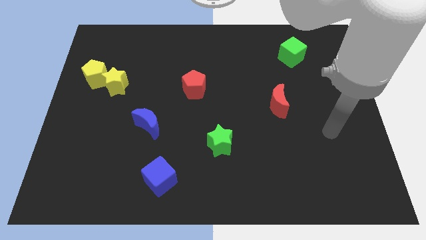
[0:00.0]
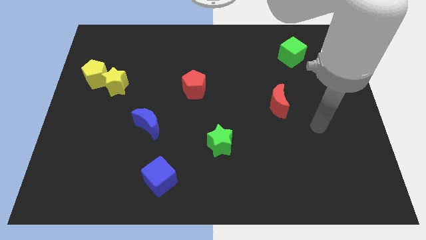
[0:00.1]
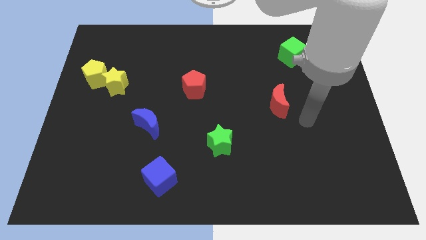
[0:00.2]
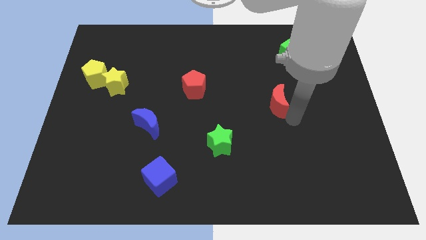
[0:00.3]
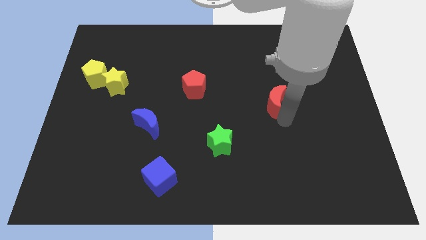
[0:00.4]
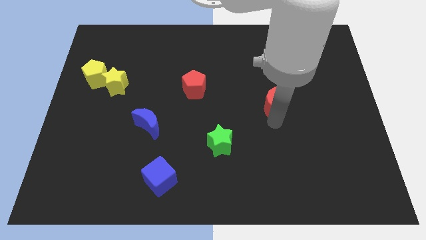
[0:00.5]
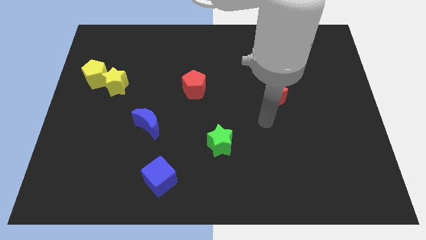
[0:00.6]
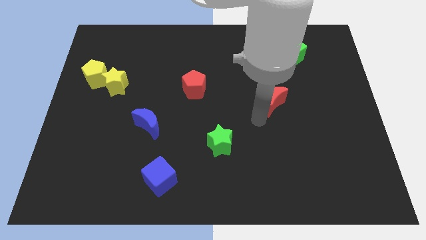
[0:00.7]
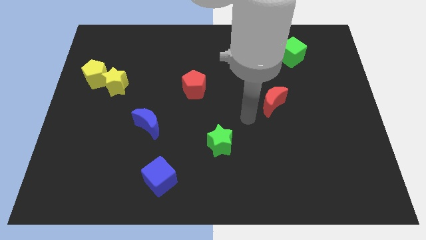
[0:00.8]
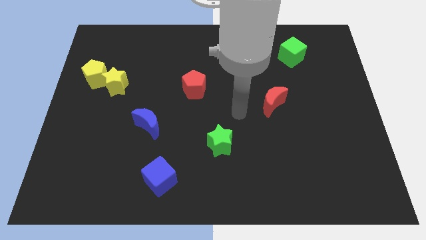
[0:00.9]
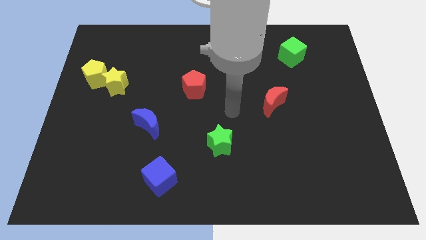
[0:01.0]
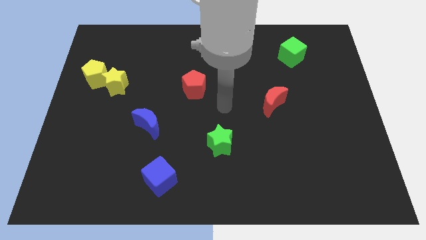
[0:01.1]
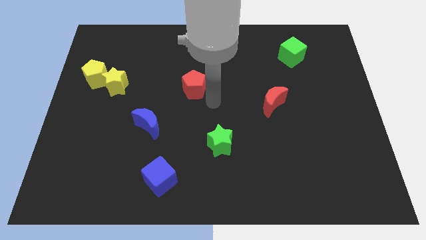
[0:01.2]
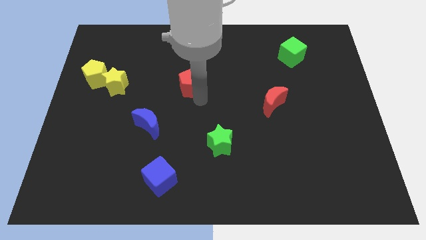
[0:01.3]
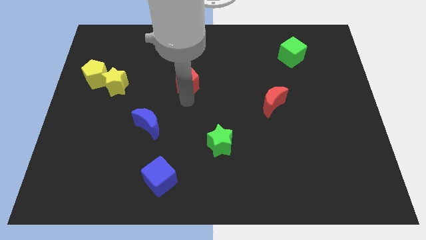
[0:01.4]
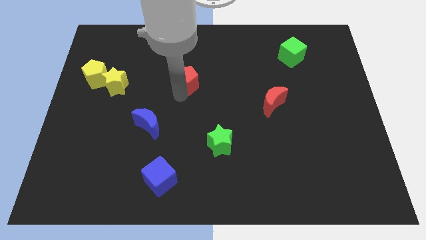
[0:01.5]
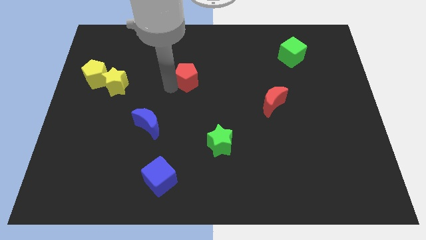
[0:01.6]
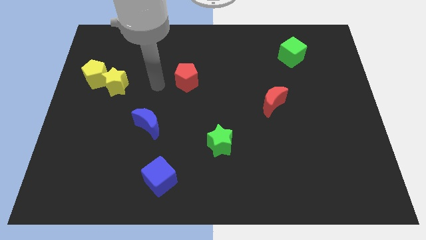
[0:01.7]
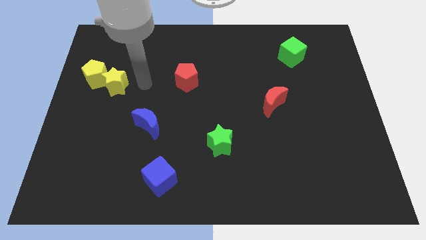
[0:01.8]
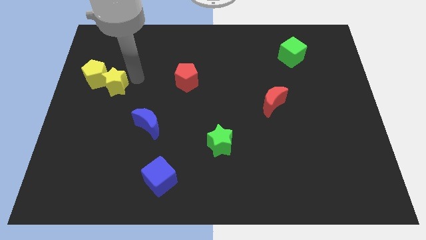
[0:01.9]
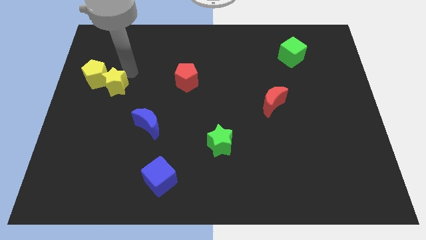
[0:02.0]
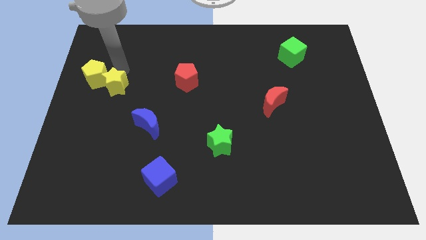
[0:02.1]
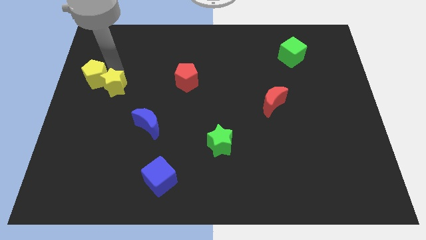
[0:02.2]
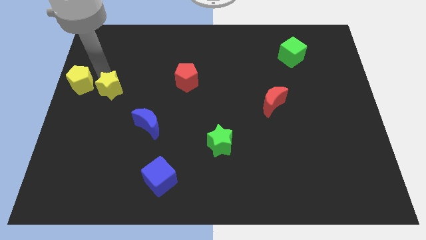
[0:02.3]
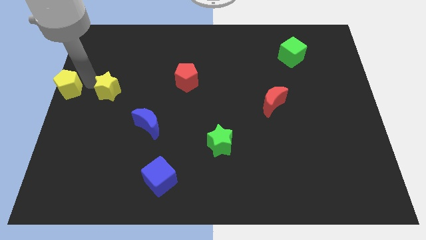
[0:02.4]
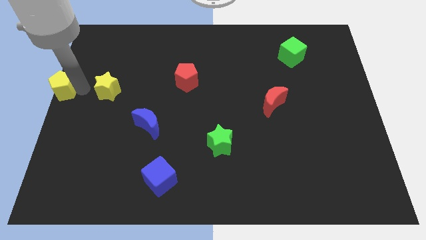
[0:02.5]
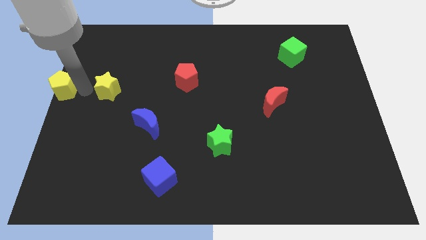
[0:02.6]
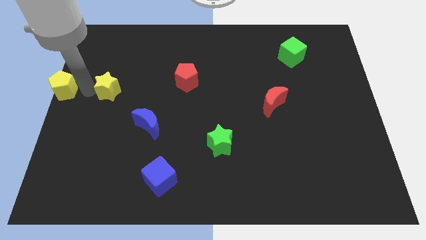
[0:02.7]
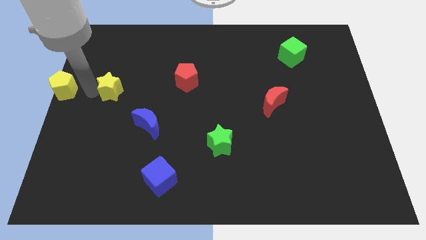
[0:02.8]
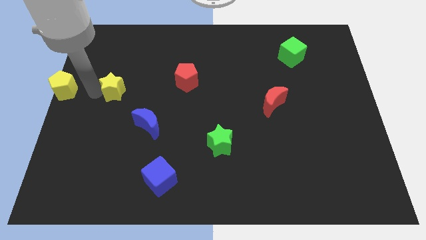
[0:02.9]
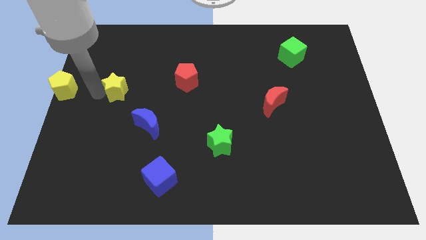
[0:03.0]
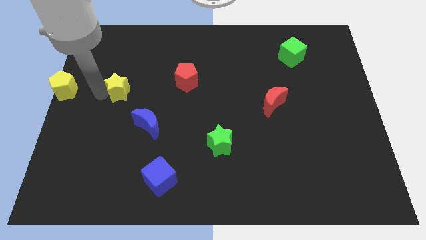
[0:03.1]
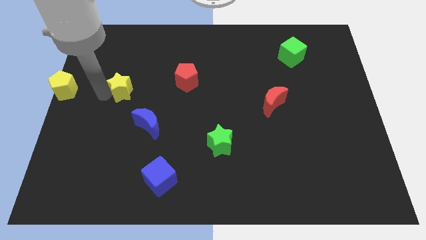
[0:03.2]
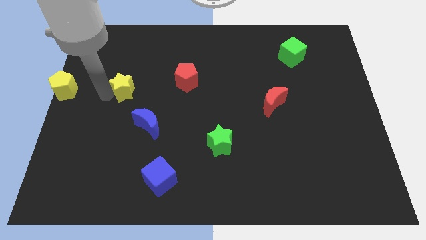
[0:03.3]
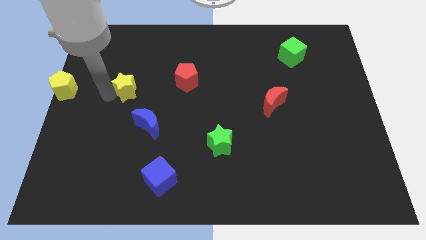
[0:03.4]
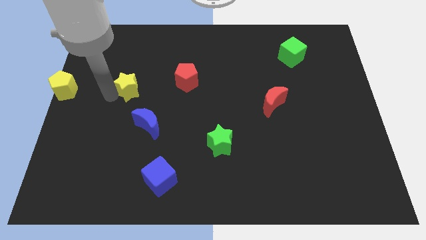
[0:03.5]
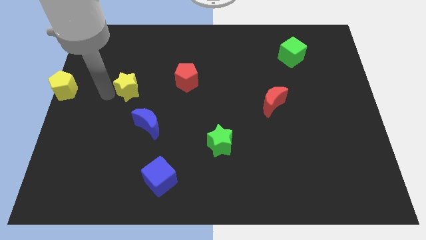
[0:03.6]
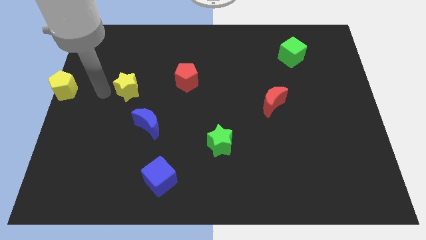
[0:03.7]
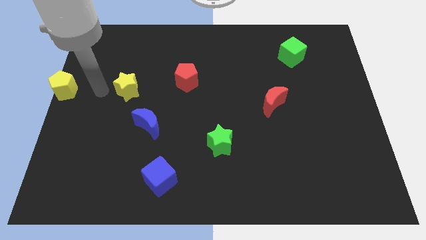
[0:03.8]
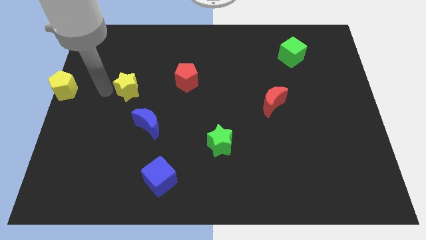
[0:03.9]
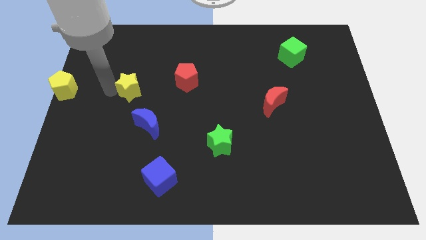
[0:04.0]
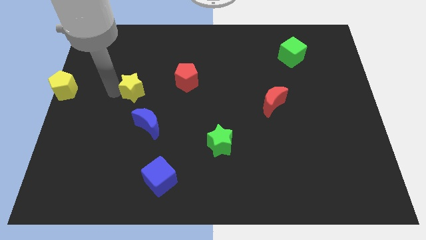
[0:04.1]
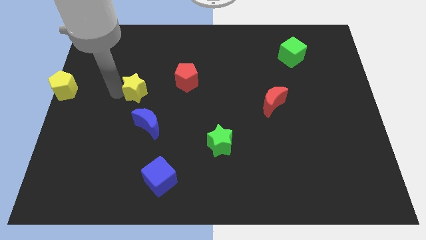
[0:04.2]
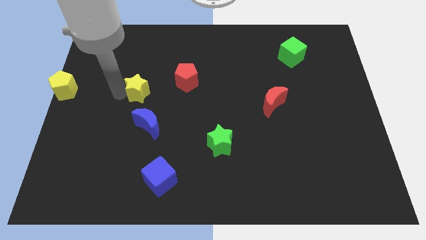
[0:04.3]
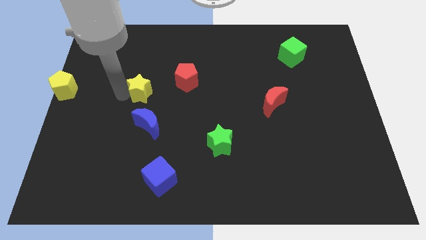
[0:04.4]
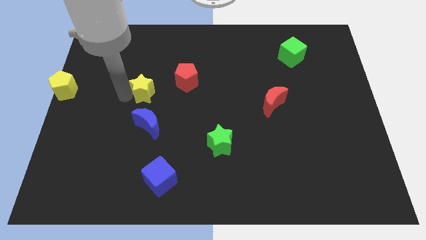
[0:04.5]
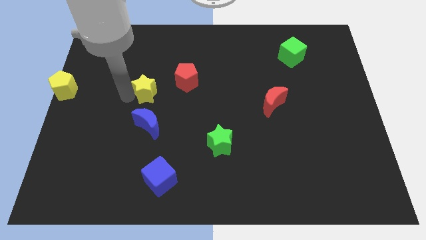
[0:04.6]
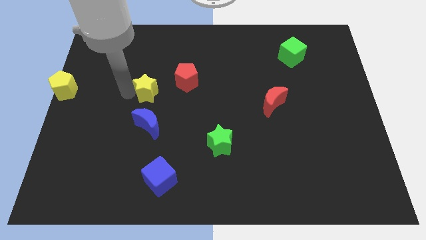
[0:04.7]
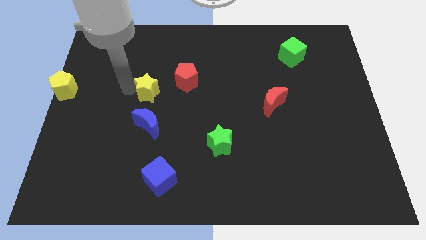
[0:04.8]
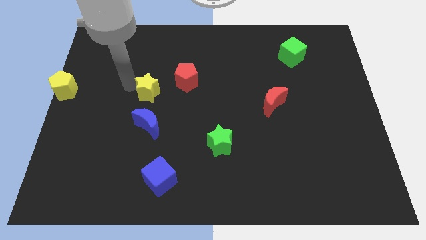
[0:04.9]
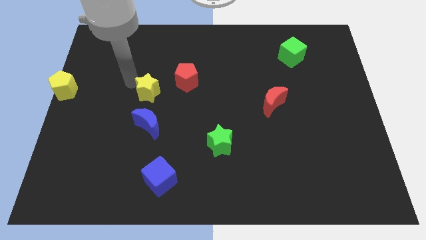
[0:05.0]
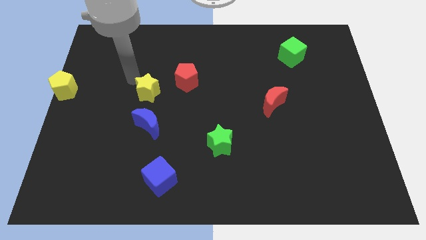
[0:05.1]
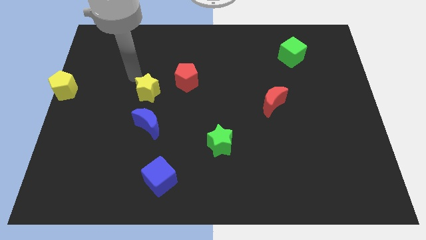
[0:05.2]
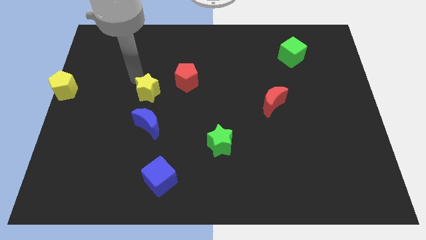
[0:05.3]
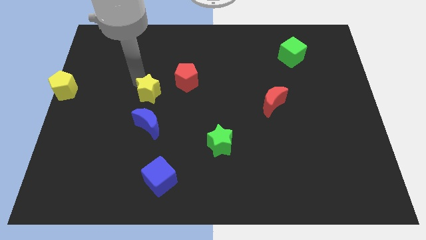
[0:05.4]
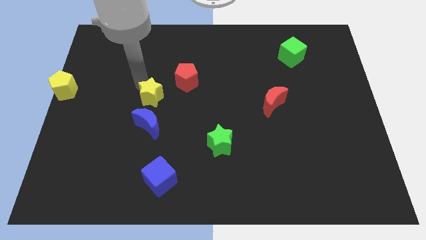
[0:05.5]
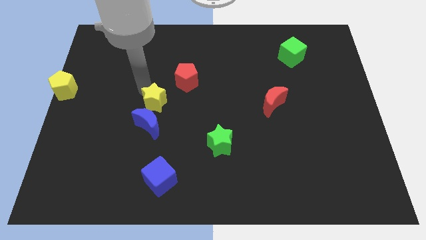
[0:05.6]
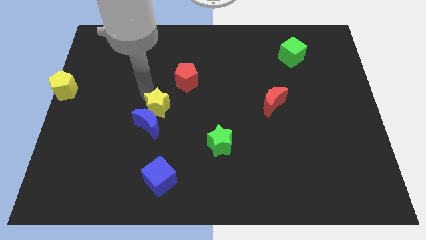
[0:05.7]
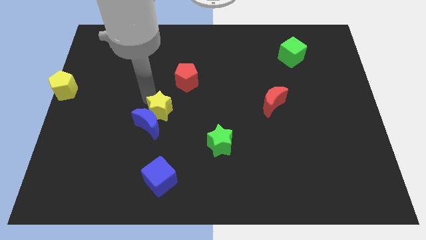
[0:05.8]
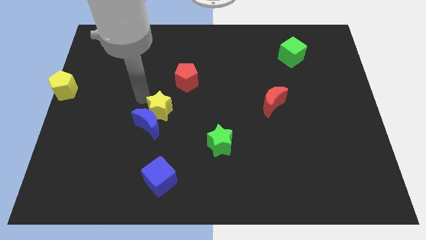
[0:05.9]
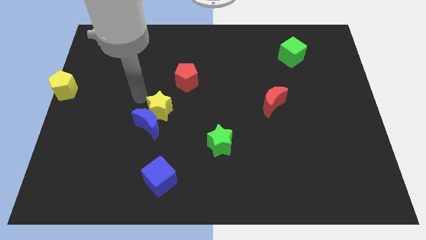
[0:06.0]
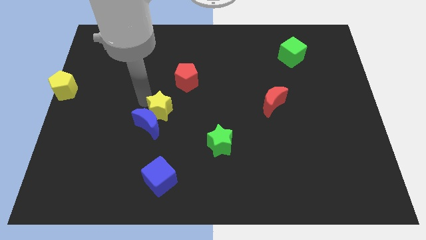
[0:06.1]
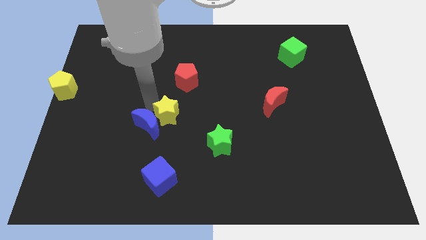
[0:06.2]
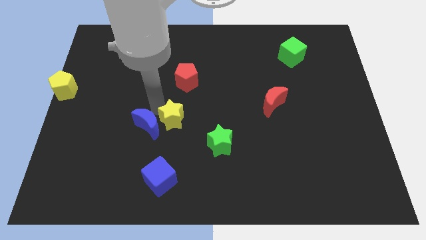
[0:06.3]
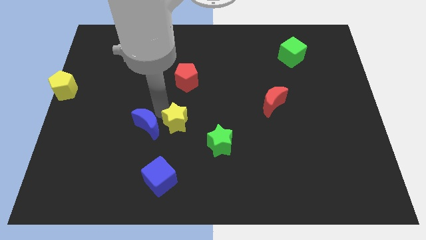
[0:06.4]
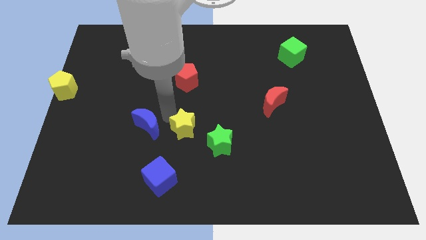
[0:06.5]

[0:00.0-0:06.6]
push the yellow star downwards and then to the right

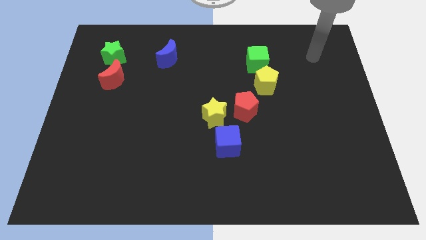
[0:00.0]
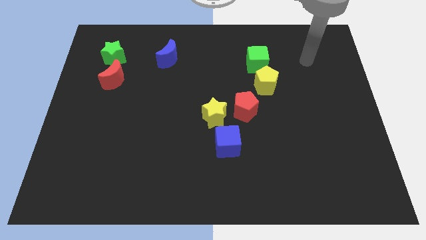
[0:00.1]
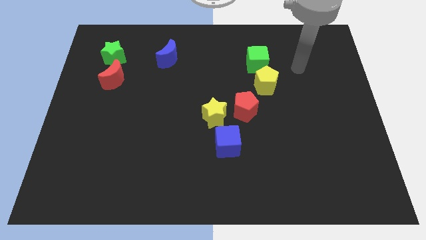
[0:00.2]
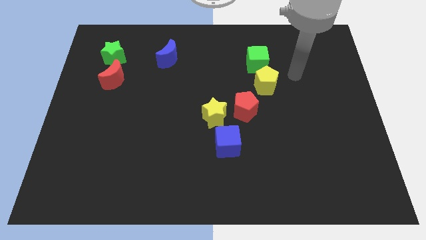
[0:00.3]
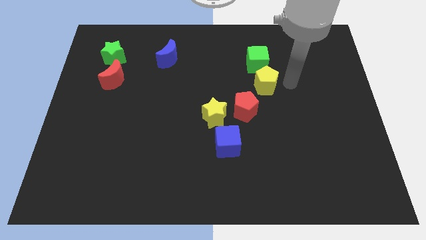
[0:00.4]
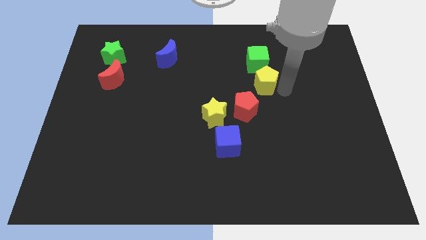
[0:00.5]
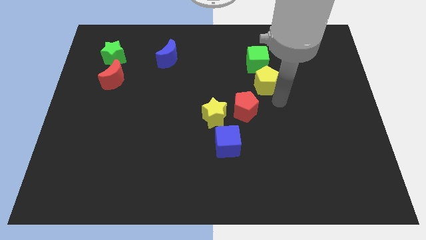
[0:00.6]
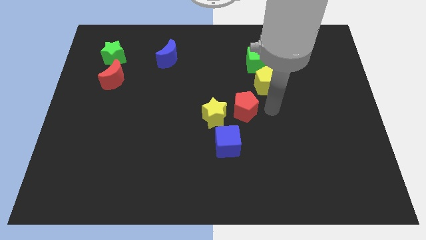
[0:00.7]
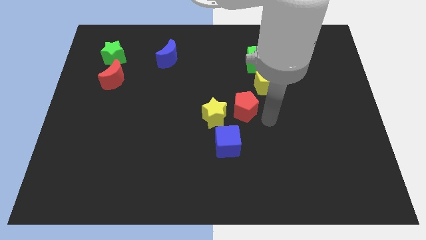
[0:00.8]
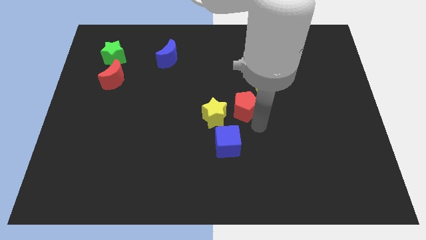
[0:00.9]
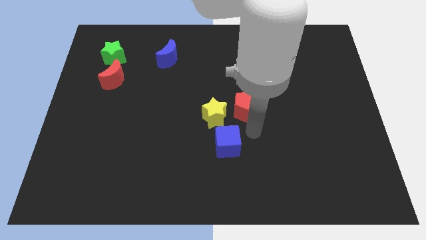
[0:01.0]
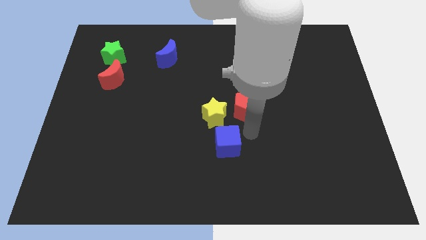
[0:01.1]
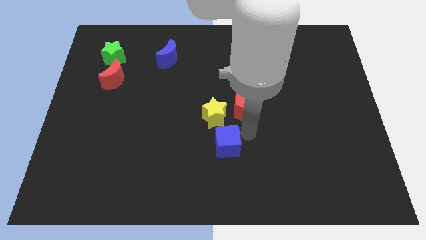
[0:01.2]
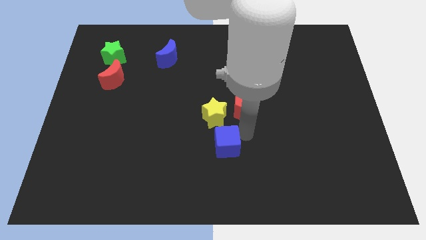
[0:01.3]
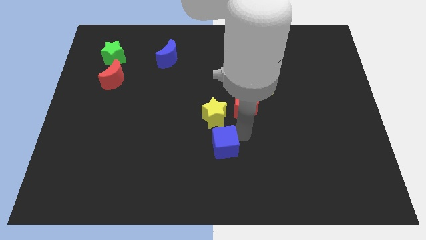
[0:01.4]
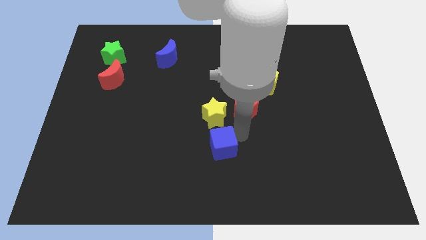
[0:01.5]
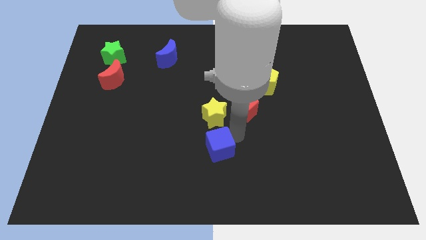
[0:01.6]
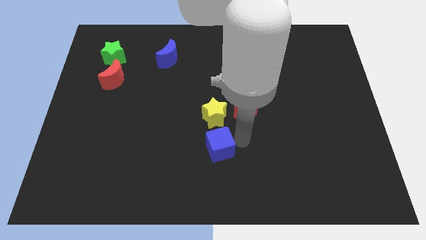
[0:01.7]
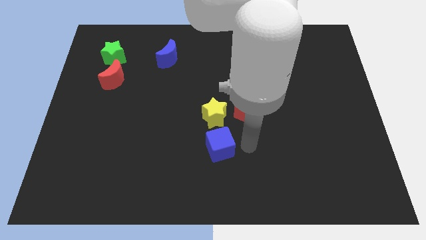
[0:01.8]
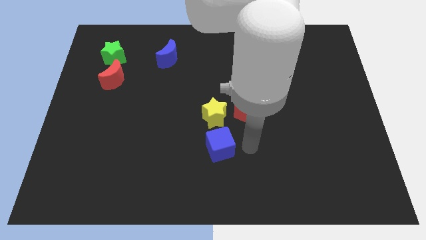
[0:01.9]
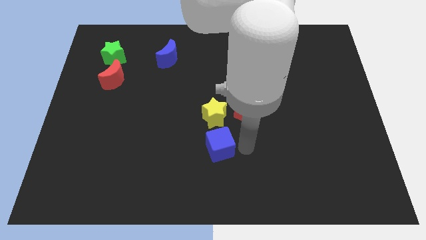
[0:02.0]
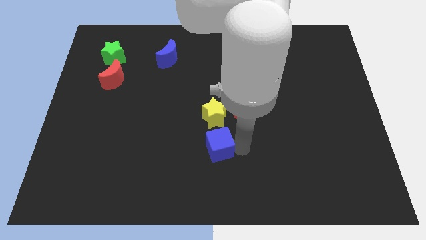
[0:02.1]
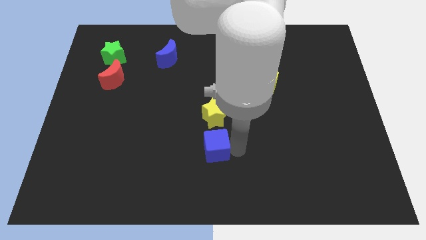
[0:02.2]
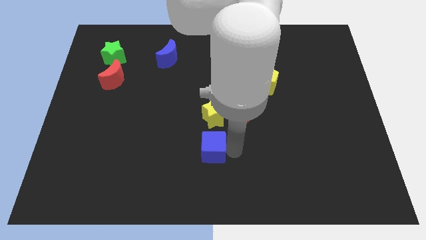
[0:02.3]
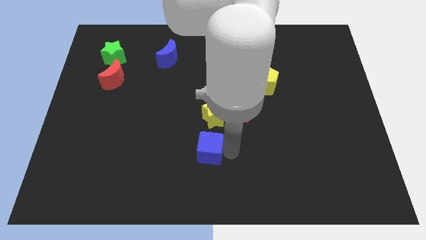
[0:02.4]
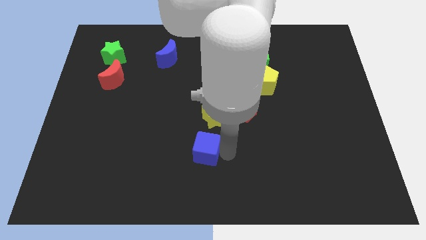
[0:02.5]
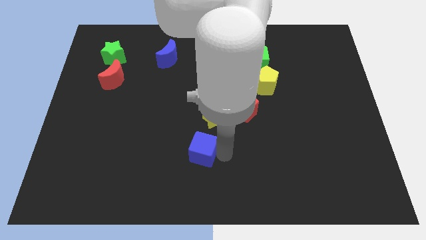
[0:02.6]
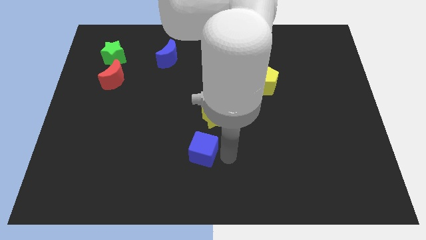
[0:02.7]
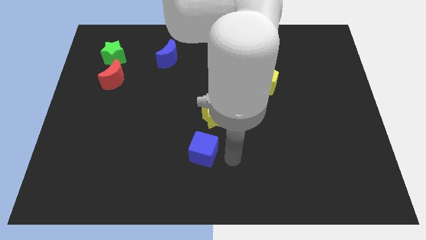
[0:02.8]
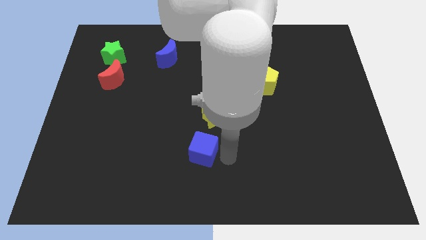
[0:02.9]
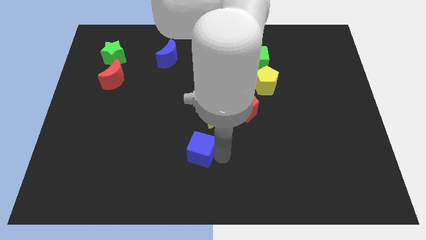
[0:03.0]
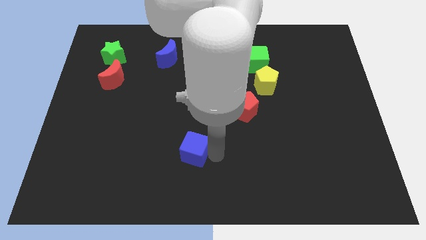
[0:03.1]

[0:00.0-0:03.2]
slightly move the blue cube to the left
